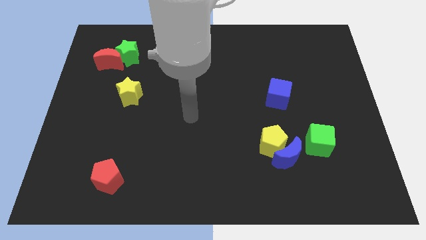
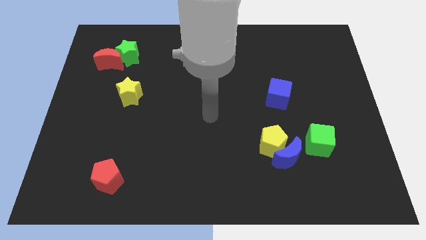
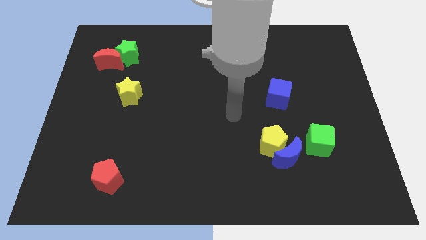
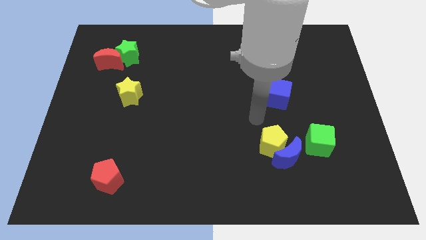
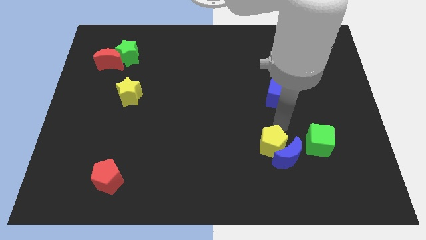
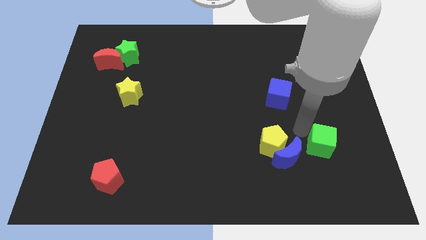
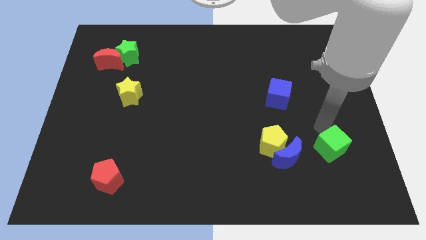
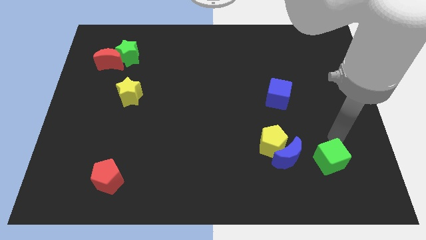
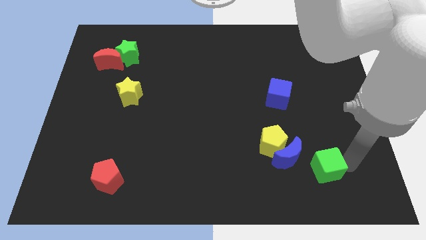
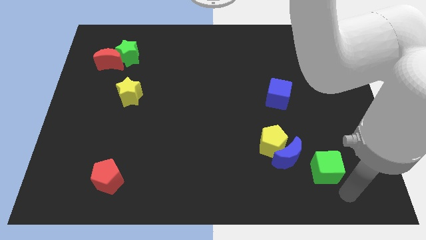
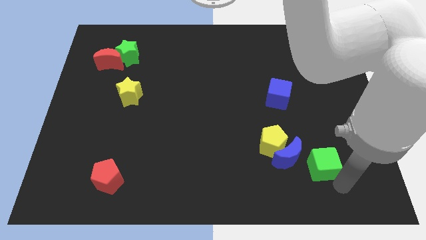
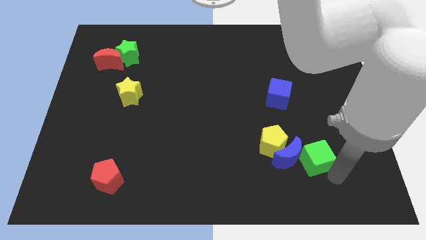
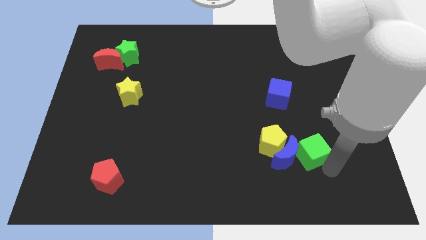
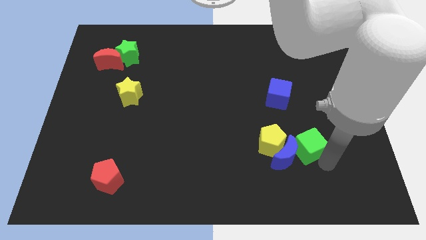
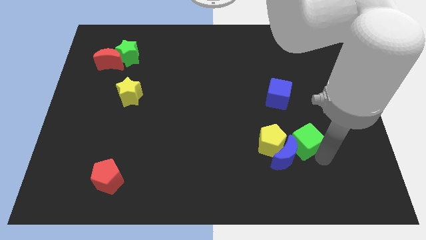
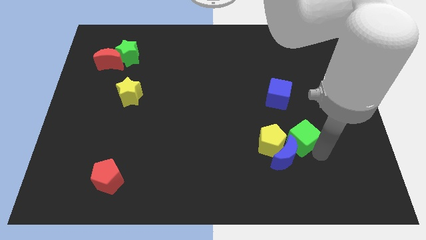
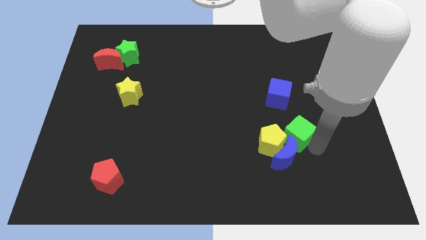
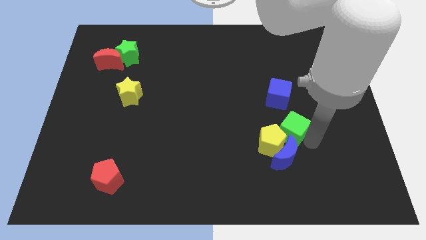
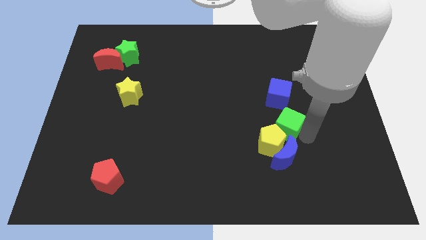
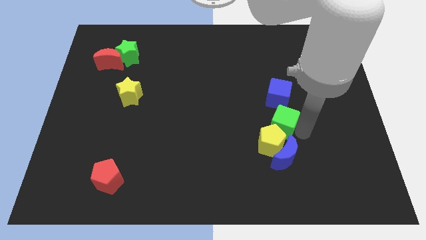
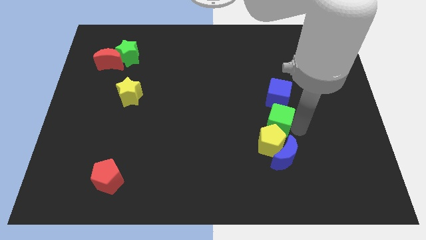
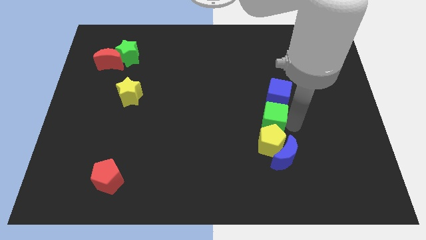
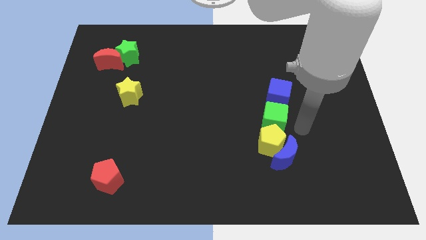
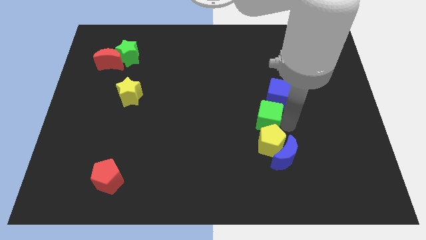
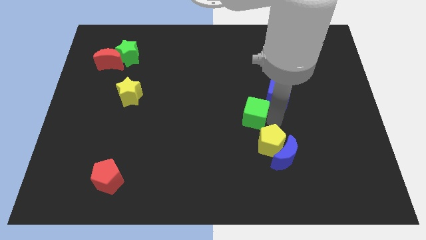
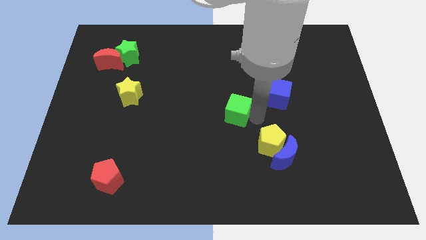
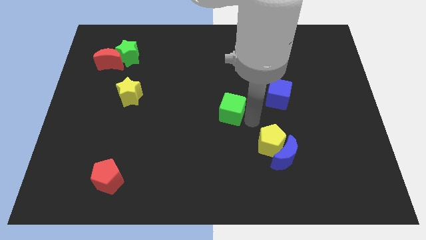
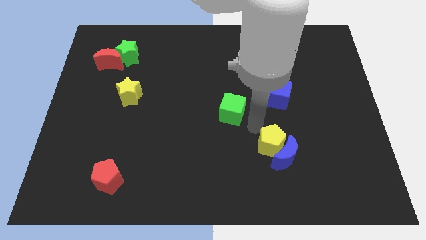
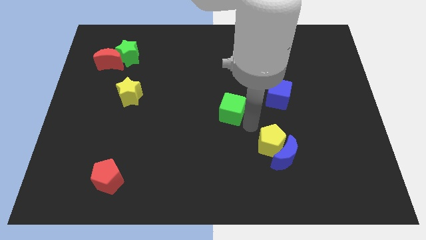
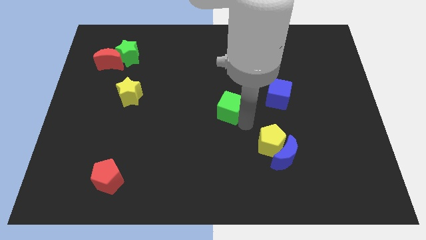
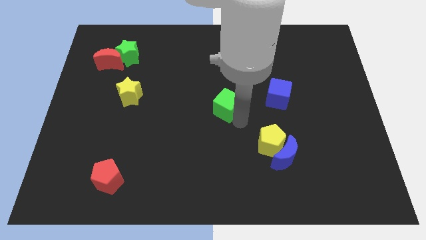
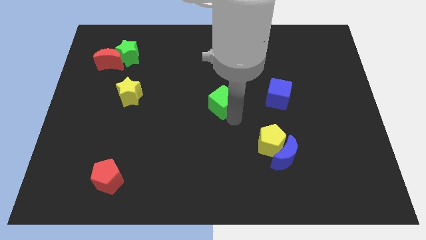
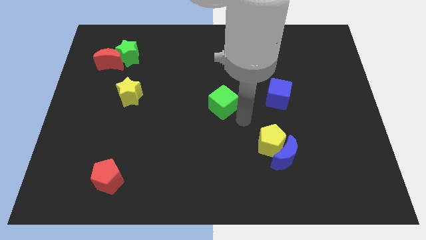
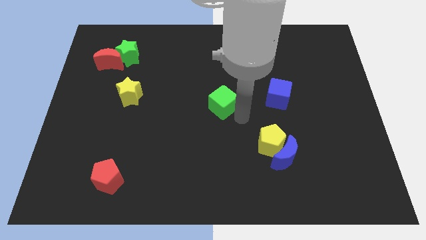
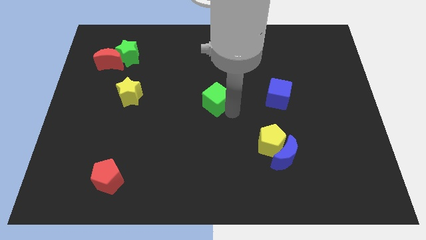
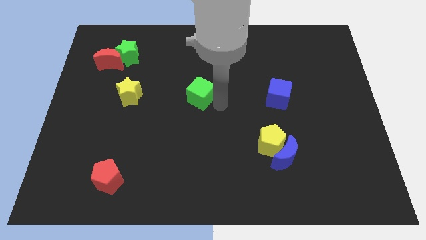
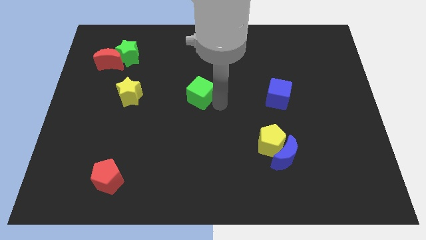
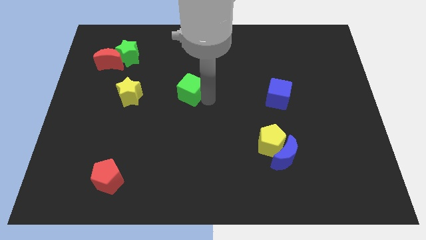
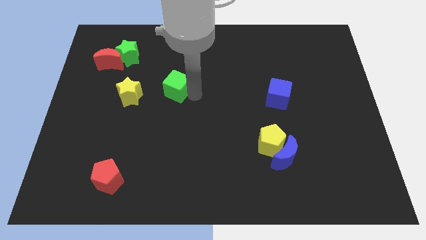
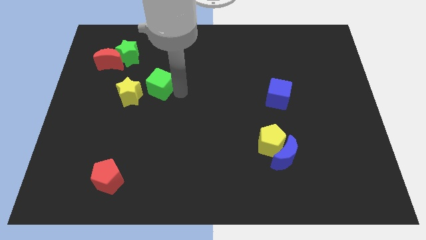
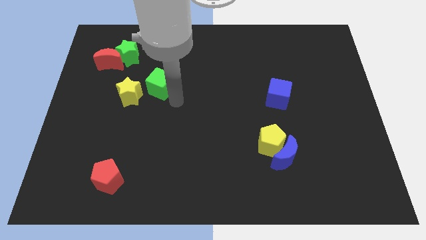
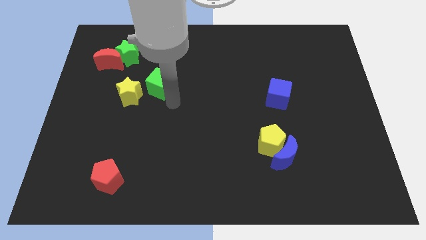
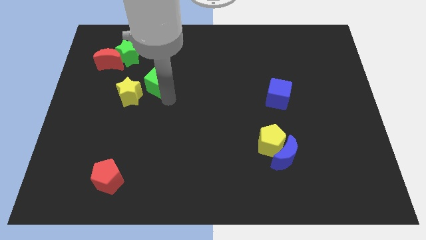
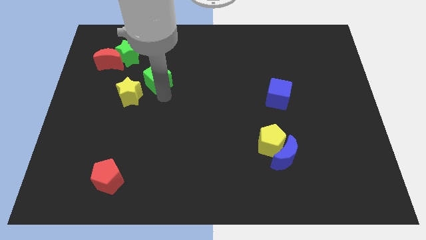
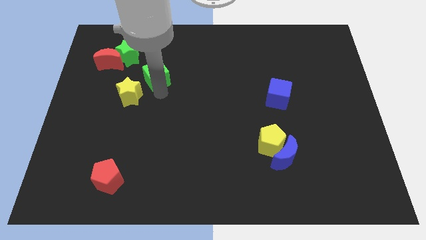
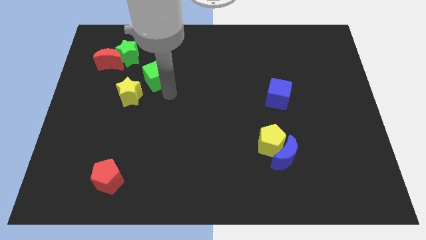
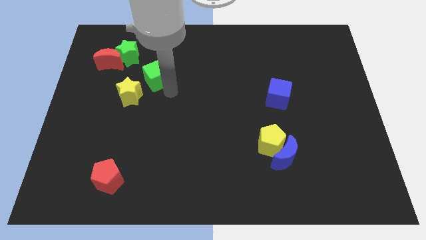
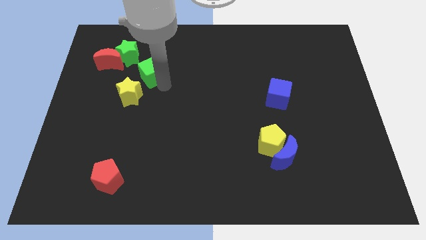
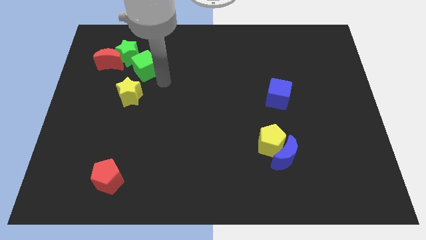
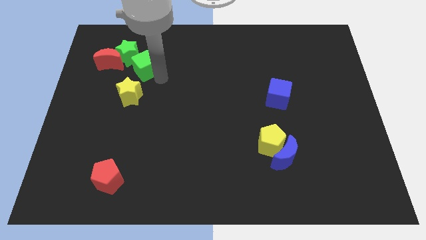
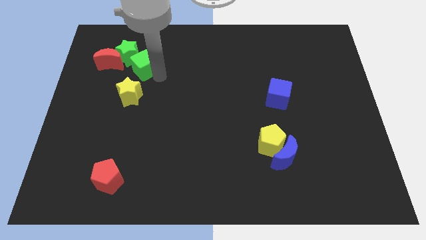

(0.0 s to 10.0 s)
slide the green cube close to the green star

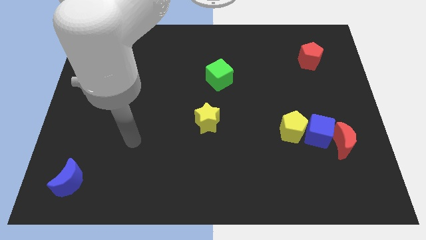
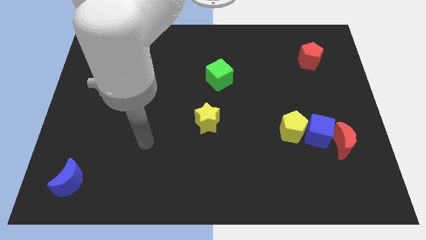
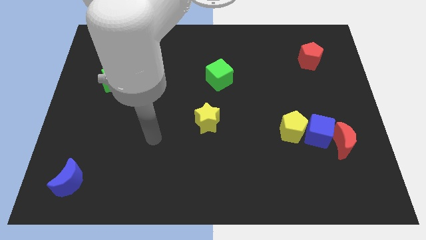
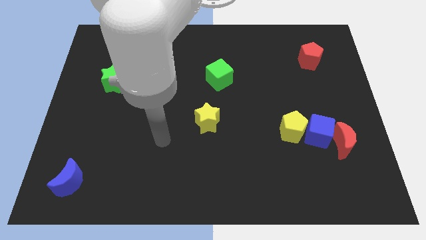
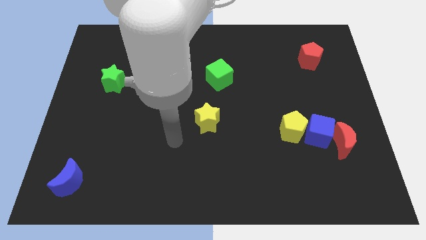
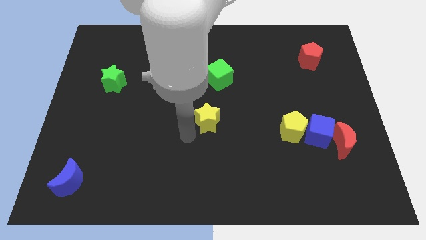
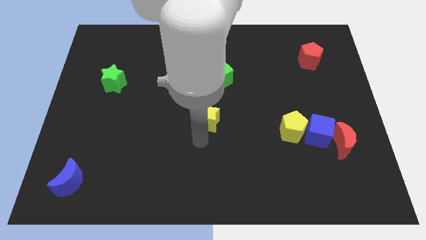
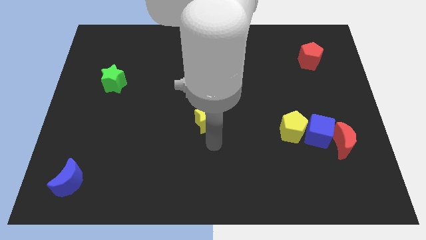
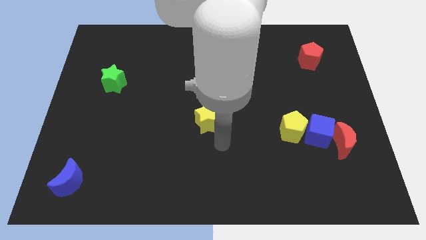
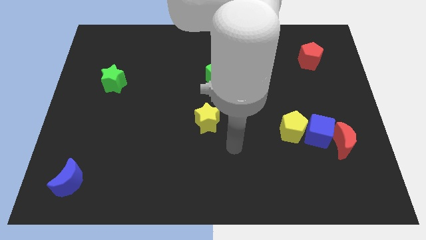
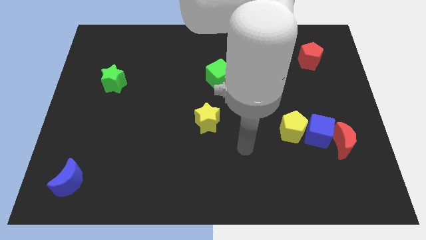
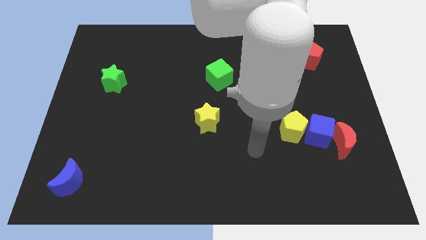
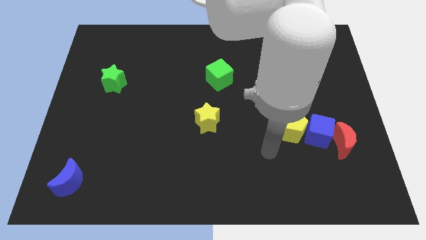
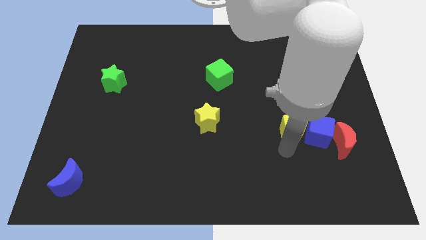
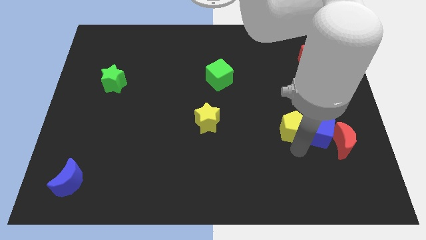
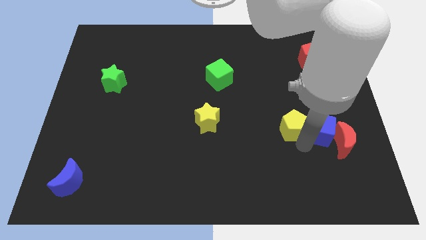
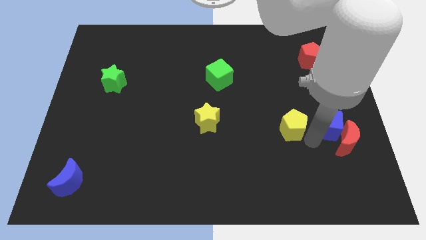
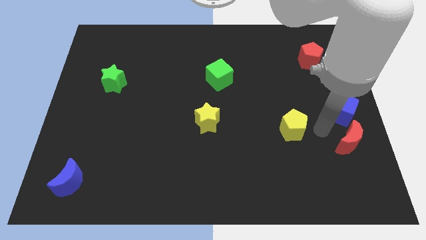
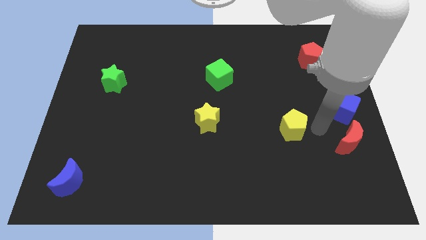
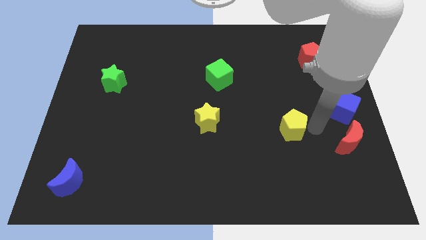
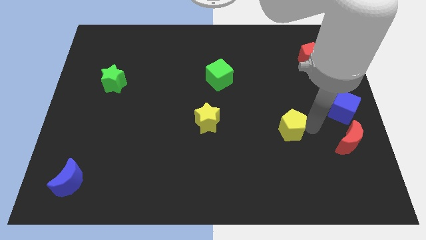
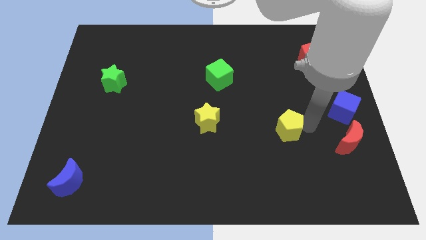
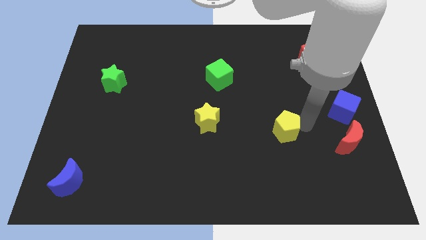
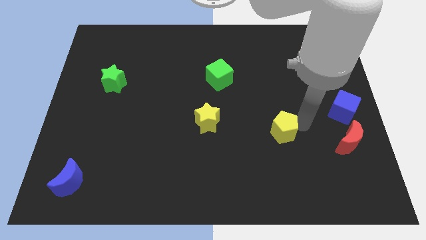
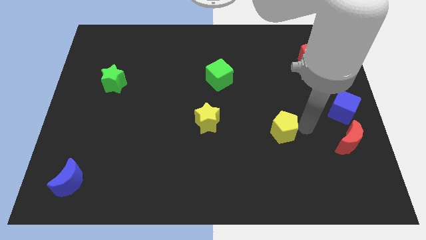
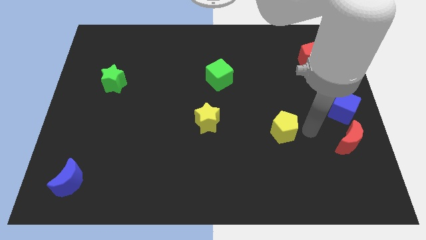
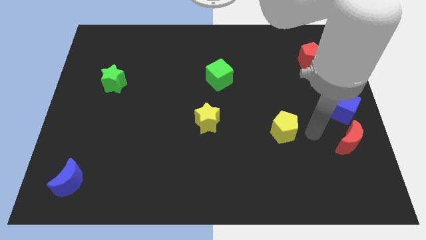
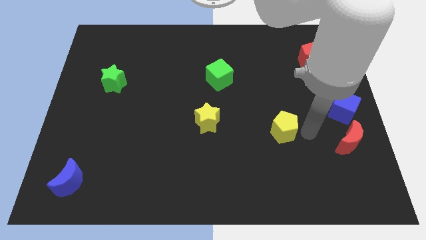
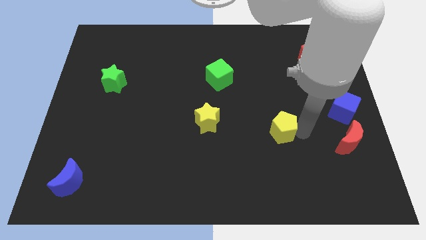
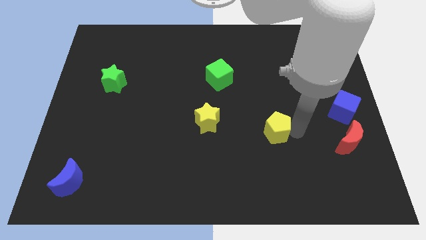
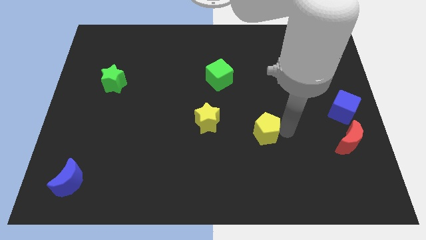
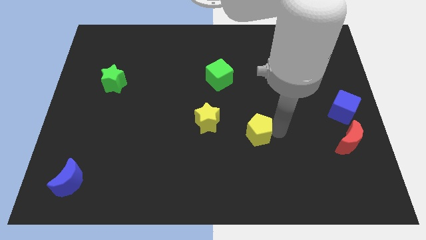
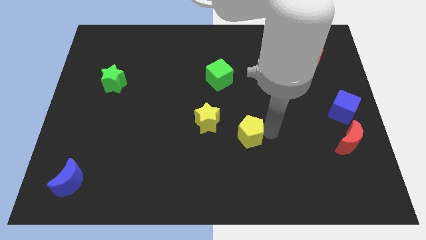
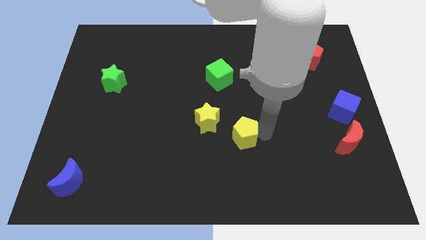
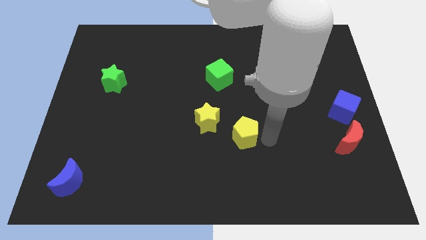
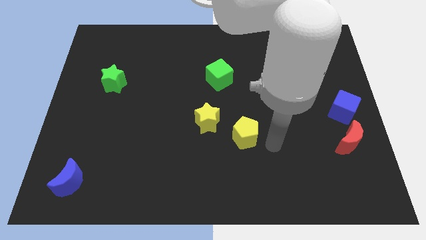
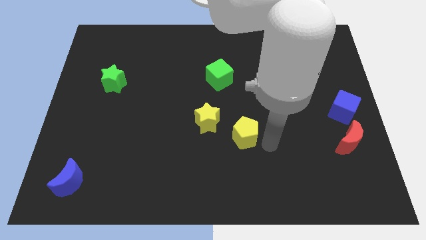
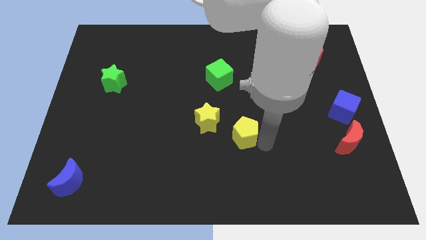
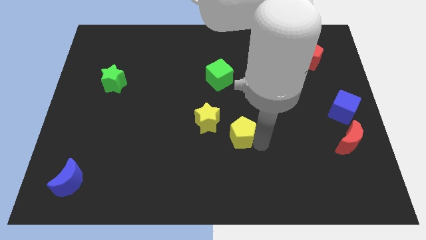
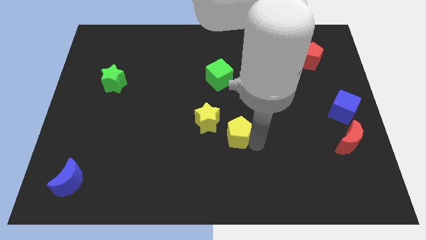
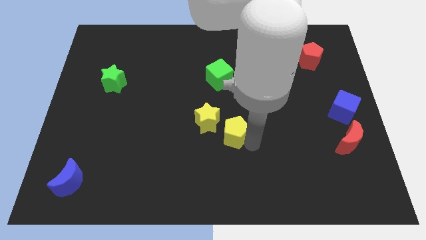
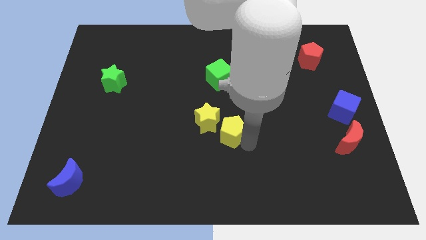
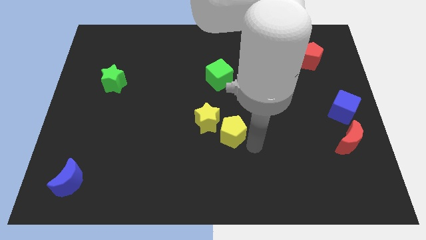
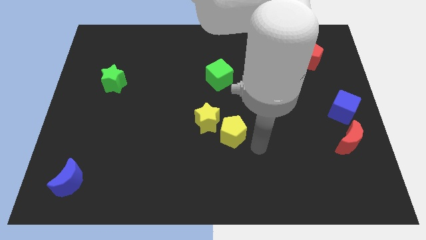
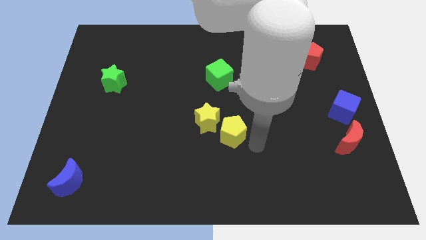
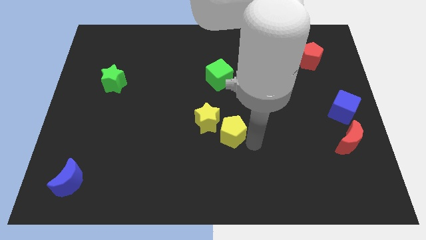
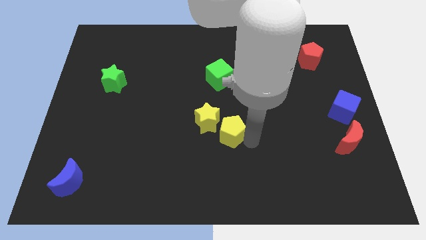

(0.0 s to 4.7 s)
put the yellow pentagon close to the yellow star
